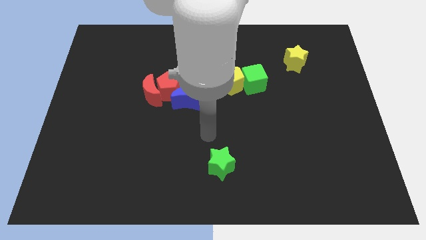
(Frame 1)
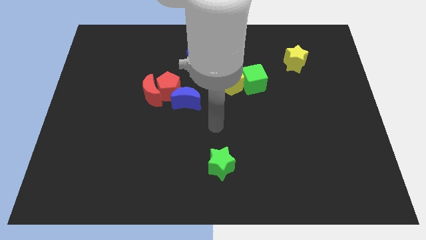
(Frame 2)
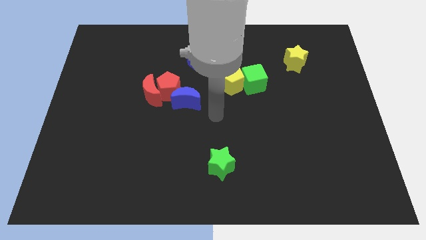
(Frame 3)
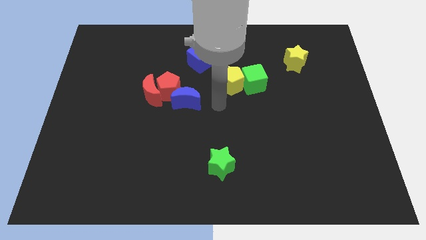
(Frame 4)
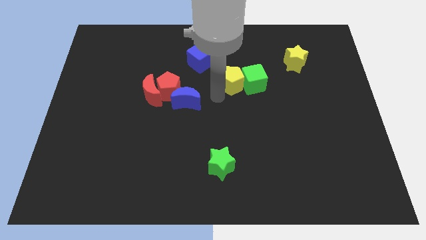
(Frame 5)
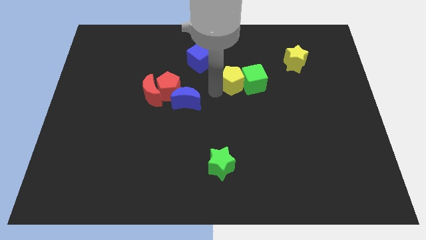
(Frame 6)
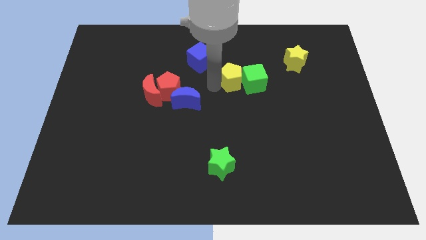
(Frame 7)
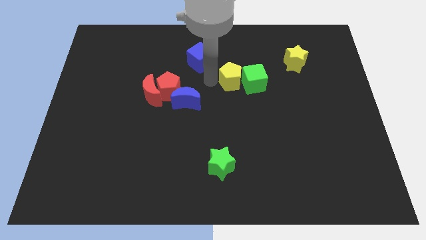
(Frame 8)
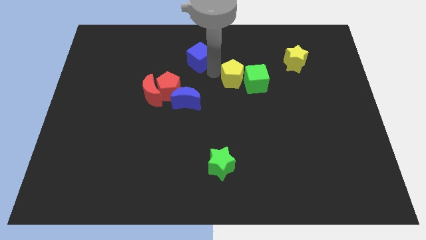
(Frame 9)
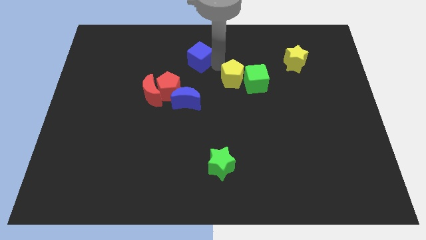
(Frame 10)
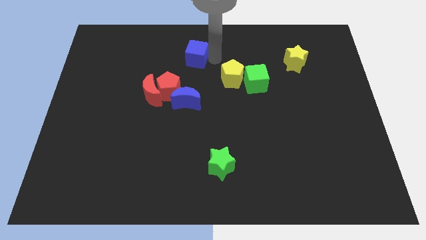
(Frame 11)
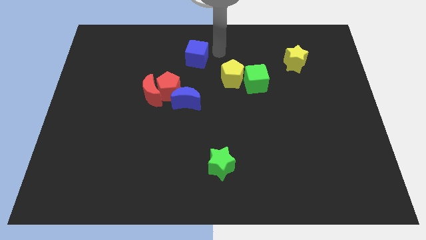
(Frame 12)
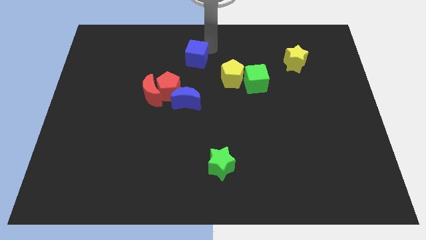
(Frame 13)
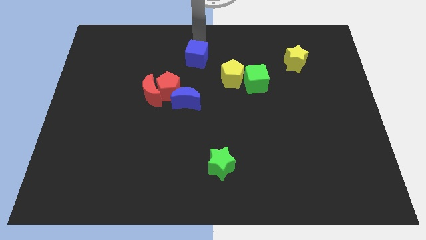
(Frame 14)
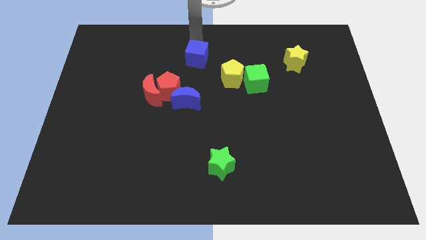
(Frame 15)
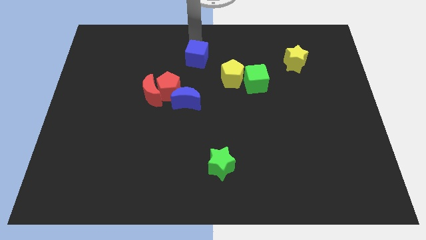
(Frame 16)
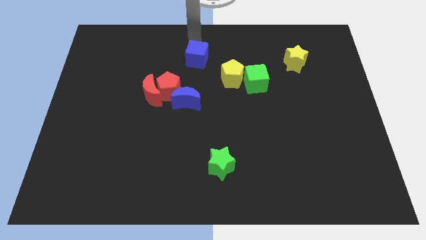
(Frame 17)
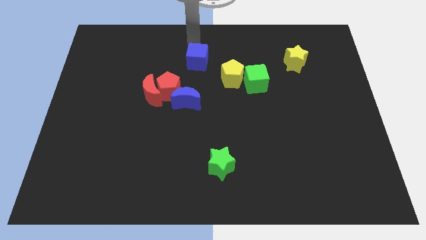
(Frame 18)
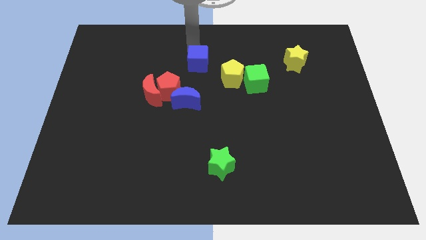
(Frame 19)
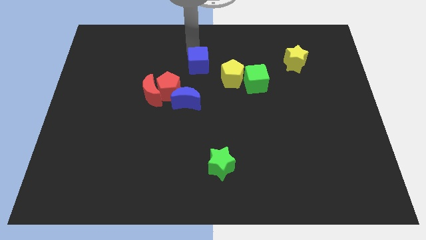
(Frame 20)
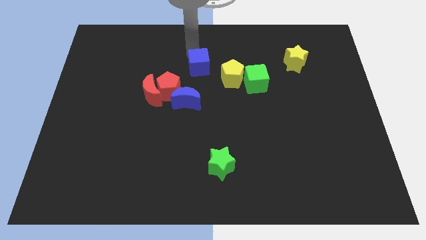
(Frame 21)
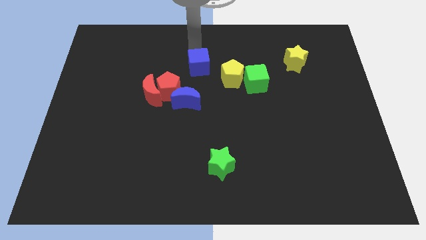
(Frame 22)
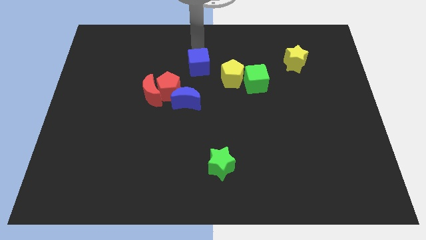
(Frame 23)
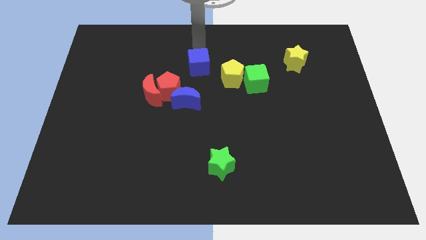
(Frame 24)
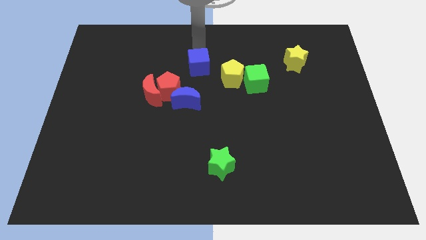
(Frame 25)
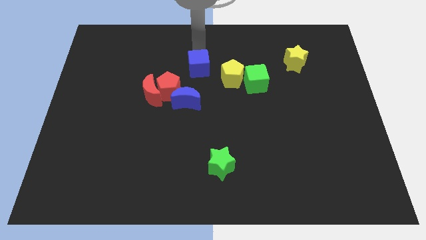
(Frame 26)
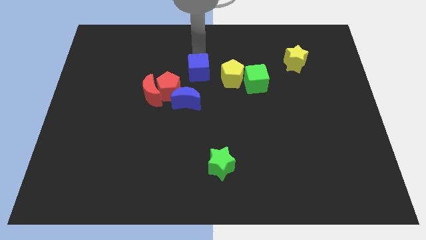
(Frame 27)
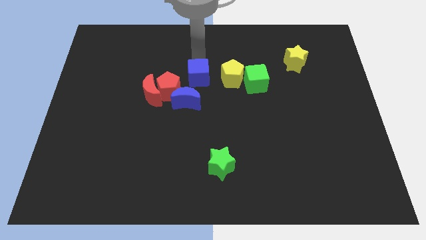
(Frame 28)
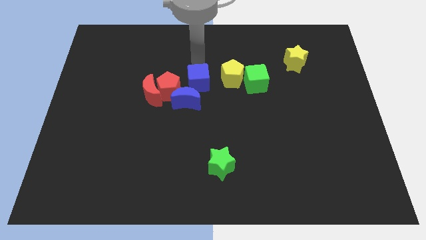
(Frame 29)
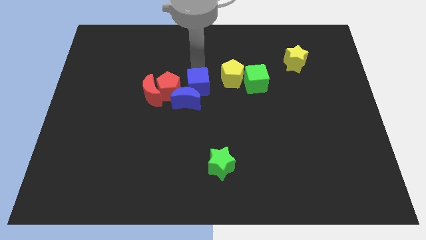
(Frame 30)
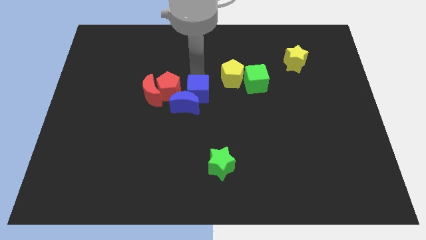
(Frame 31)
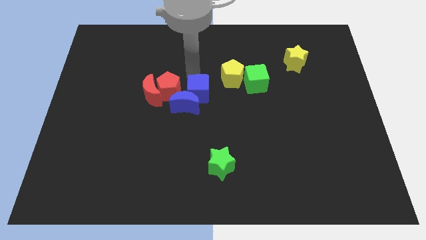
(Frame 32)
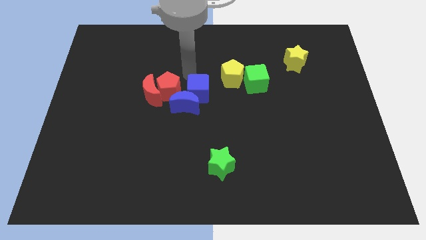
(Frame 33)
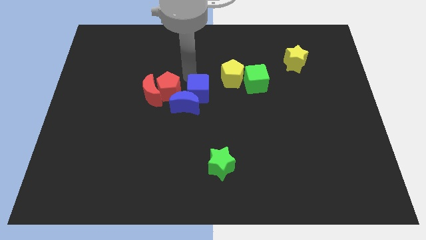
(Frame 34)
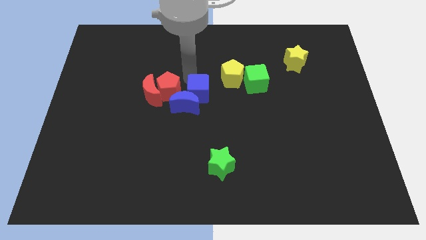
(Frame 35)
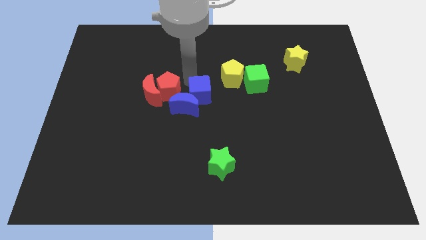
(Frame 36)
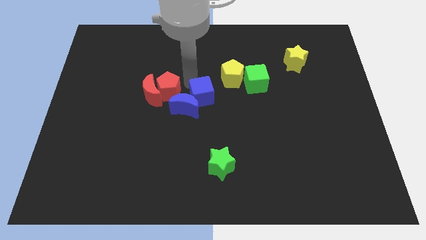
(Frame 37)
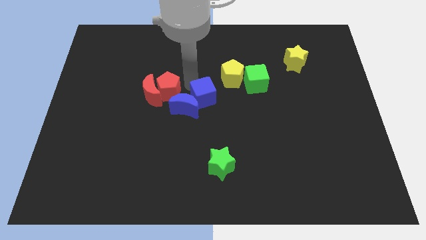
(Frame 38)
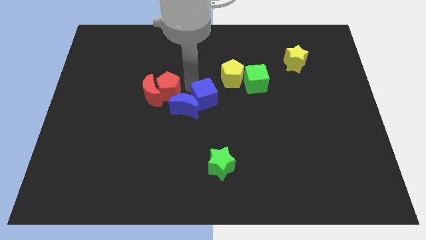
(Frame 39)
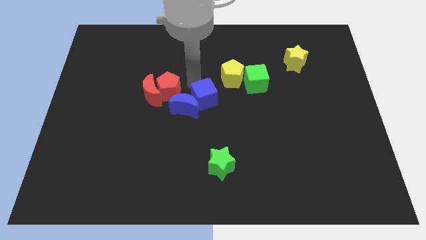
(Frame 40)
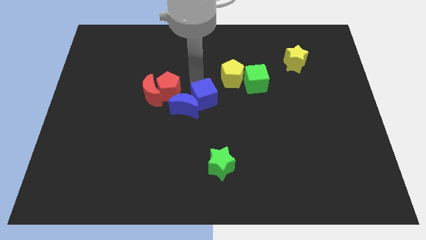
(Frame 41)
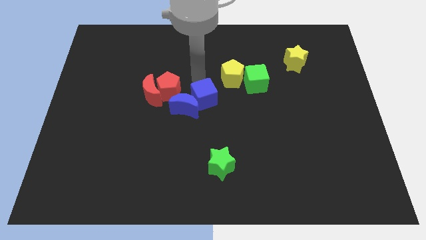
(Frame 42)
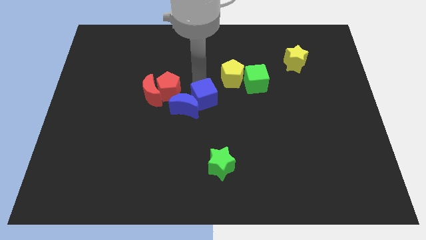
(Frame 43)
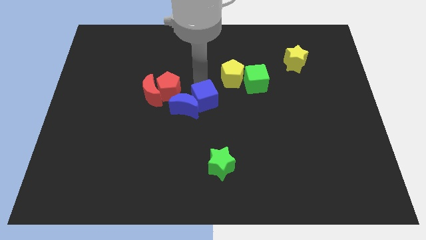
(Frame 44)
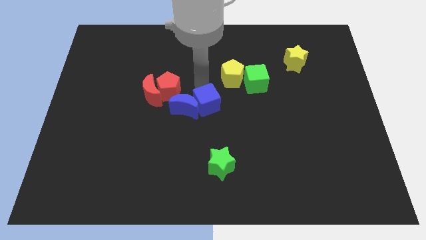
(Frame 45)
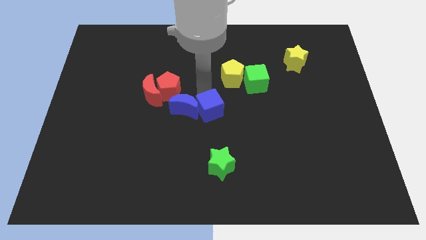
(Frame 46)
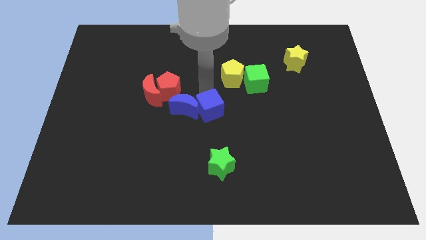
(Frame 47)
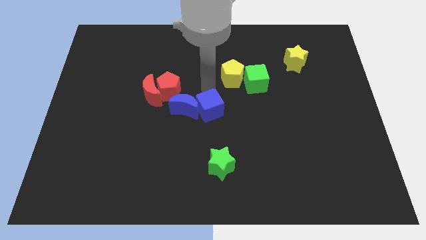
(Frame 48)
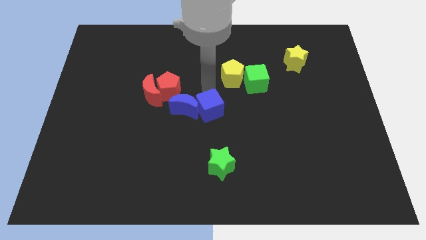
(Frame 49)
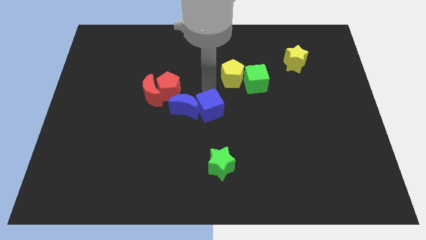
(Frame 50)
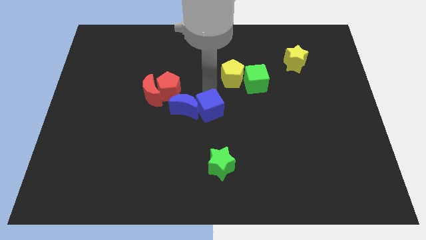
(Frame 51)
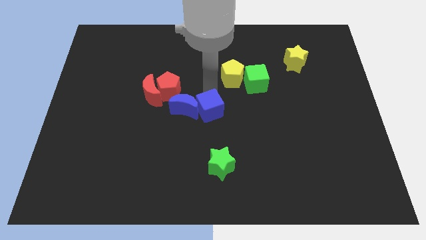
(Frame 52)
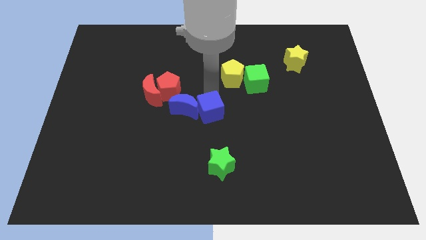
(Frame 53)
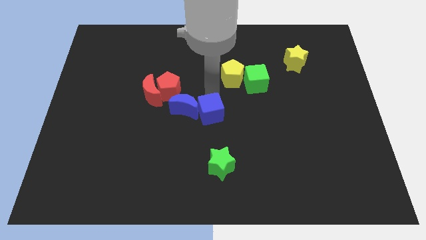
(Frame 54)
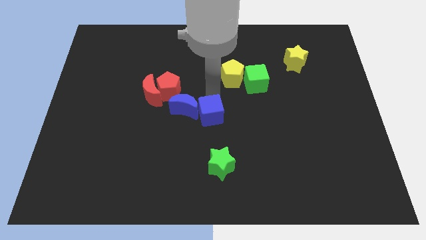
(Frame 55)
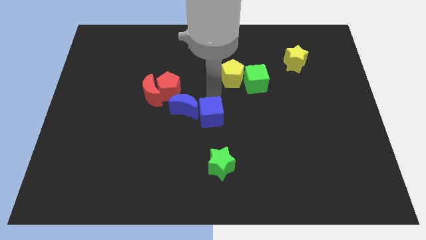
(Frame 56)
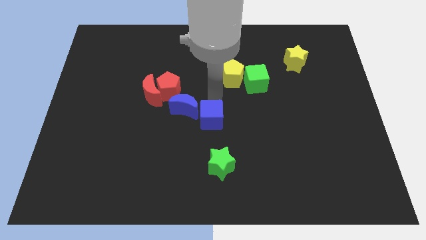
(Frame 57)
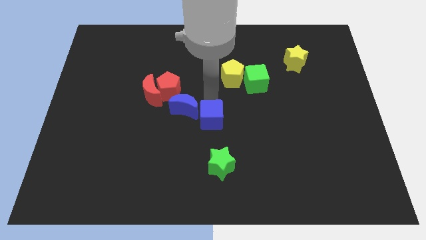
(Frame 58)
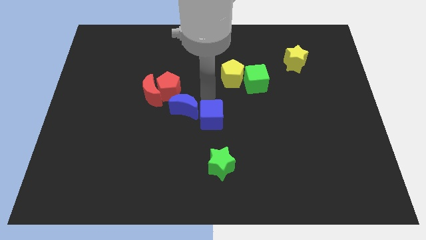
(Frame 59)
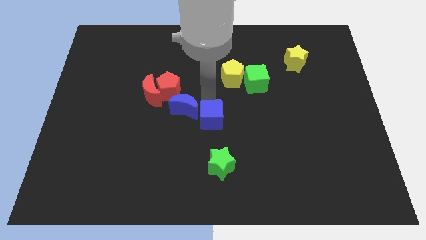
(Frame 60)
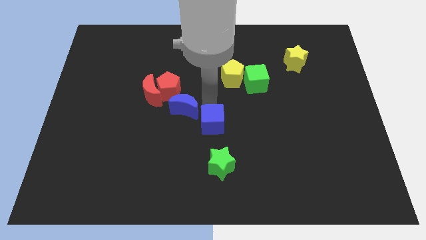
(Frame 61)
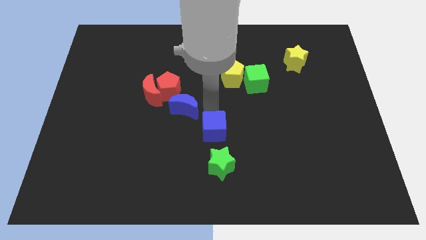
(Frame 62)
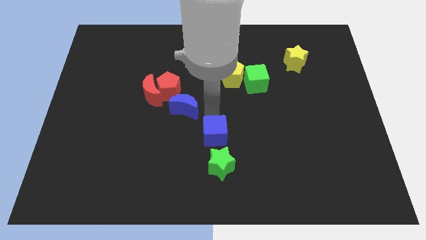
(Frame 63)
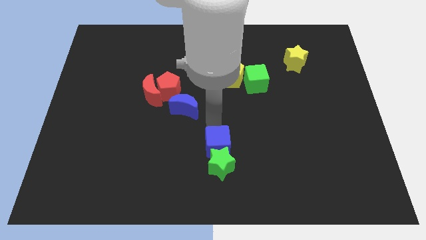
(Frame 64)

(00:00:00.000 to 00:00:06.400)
put the blue cube next to the green star

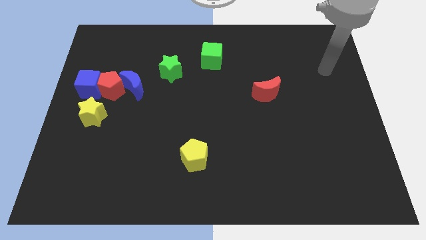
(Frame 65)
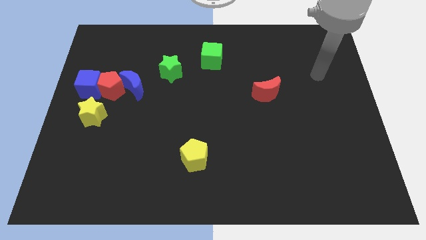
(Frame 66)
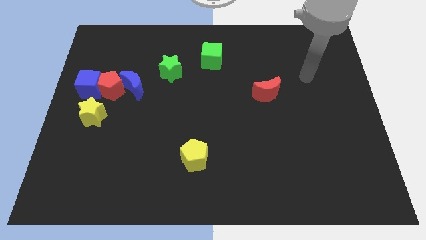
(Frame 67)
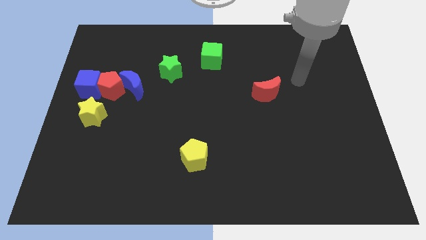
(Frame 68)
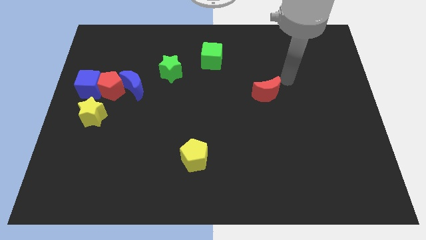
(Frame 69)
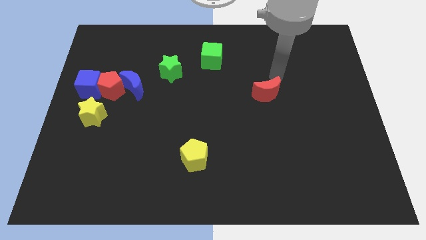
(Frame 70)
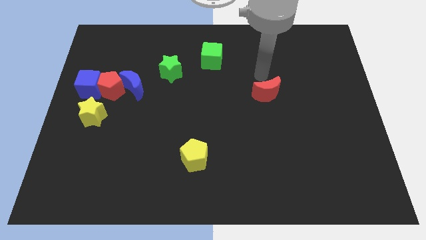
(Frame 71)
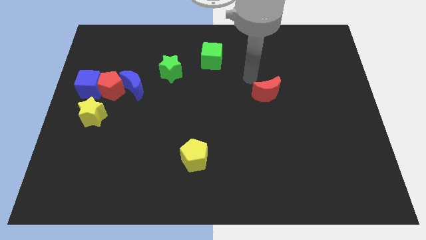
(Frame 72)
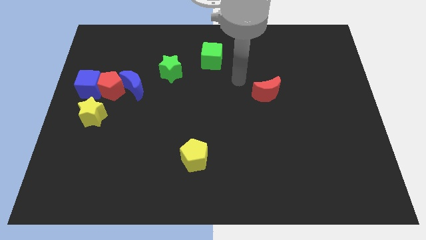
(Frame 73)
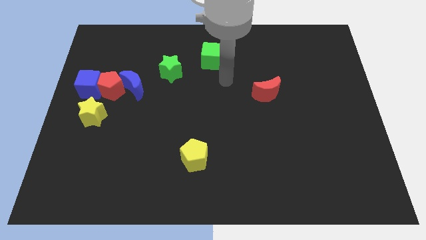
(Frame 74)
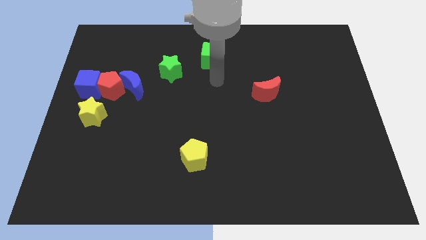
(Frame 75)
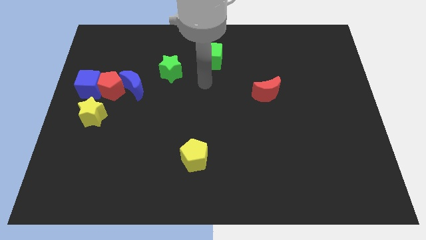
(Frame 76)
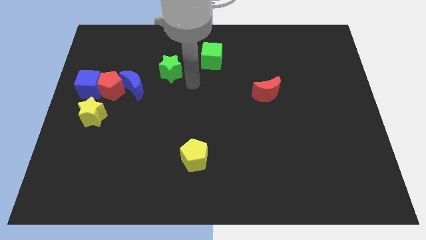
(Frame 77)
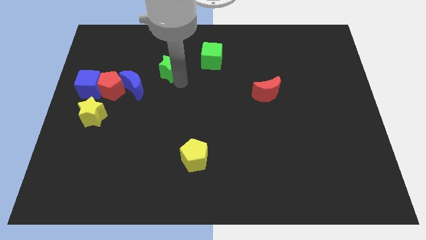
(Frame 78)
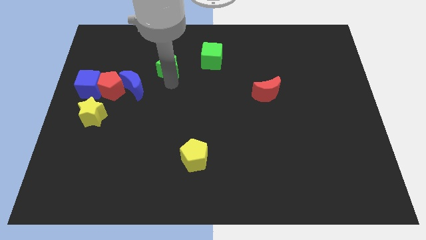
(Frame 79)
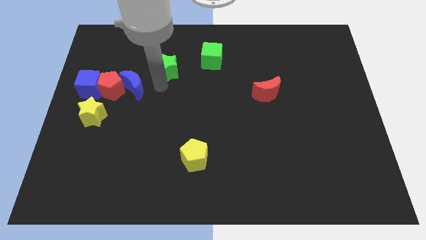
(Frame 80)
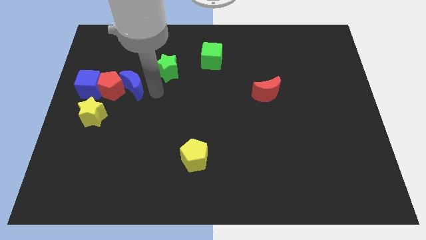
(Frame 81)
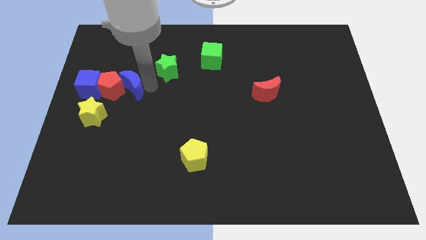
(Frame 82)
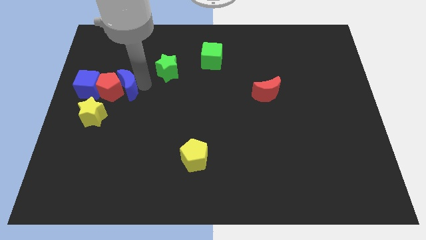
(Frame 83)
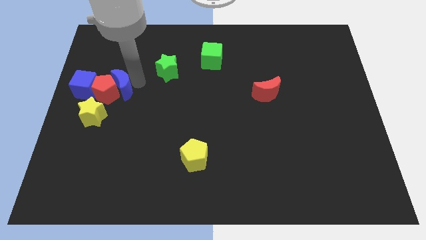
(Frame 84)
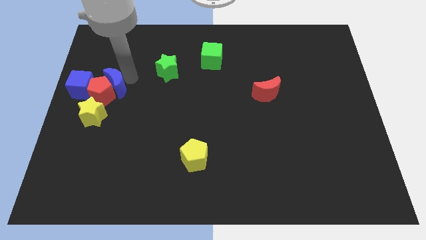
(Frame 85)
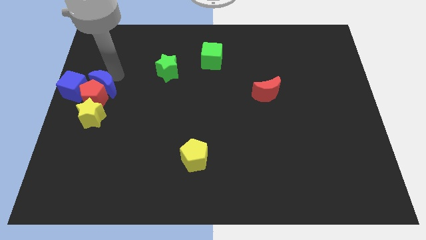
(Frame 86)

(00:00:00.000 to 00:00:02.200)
move the red pentagon next to the yellow star
